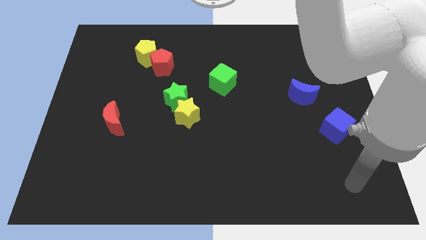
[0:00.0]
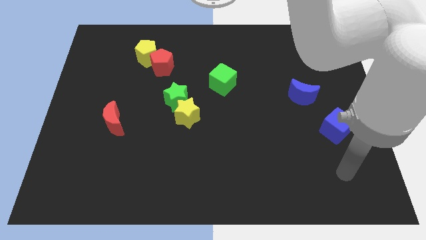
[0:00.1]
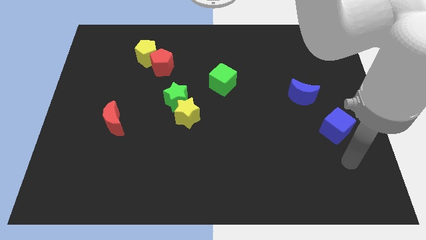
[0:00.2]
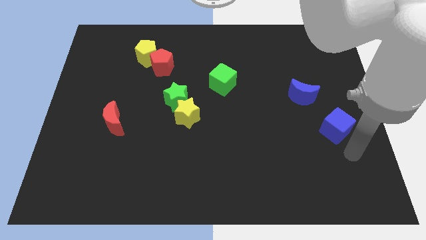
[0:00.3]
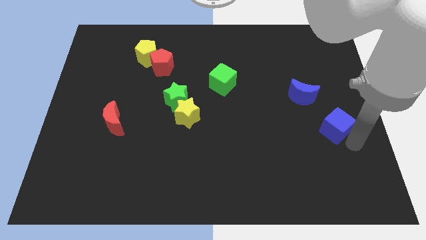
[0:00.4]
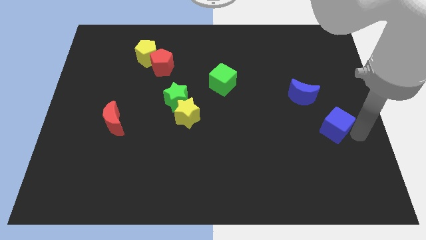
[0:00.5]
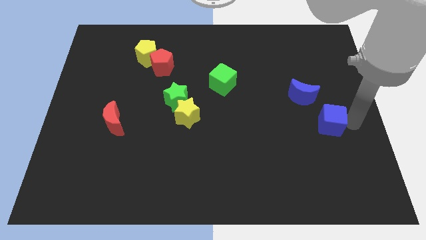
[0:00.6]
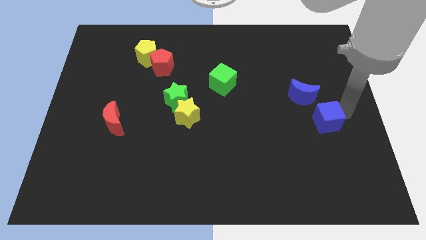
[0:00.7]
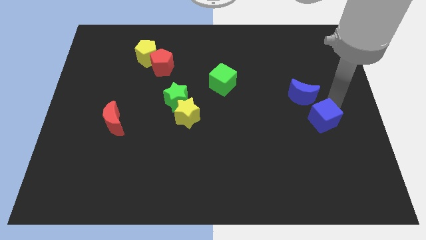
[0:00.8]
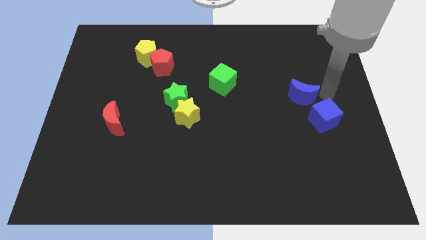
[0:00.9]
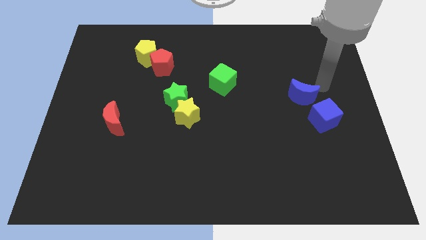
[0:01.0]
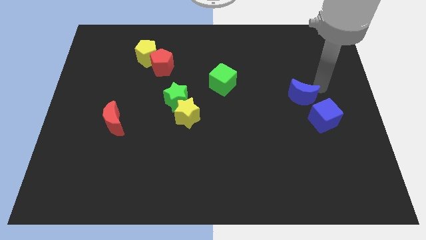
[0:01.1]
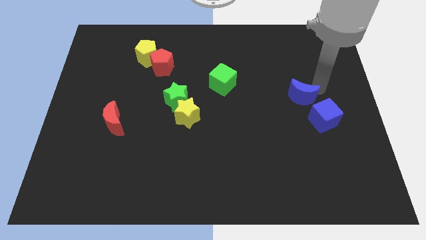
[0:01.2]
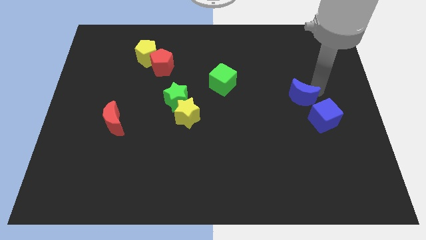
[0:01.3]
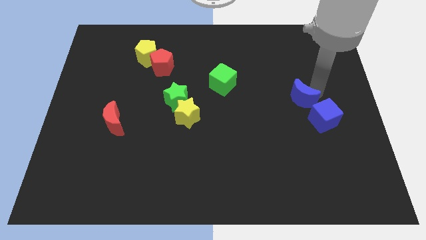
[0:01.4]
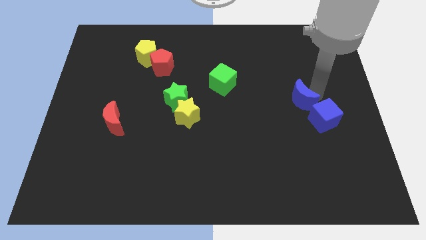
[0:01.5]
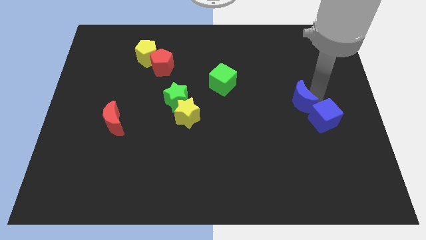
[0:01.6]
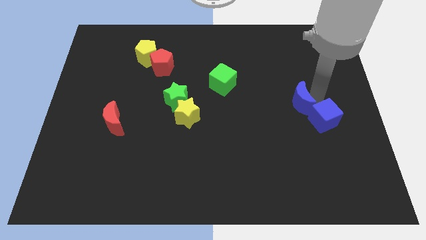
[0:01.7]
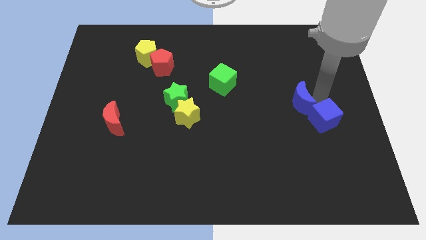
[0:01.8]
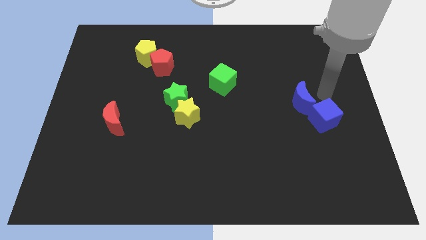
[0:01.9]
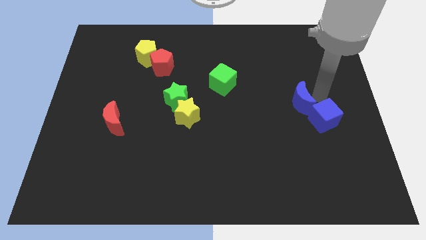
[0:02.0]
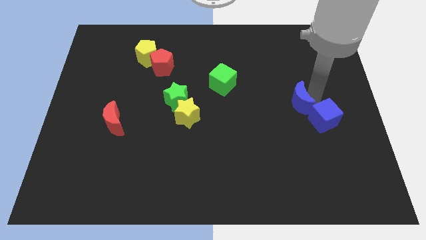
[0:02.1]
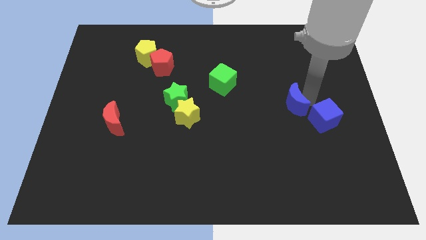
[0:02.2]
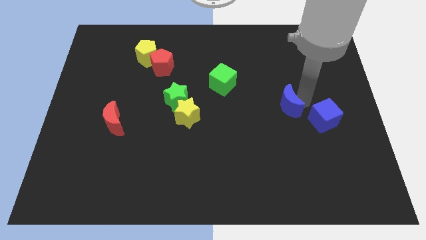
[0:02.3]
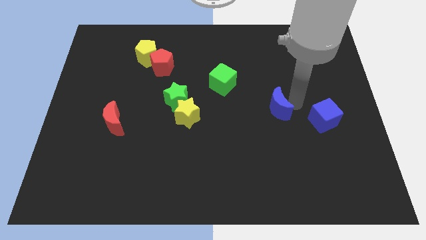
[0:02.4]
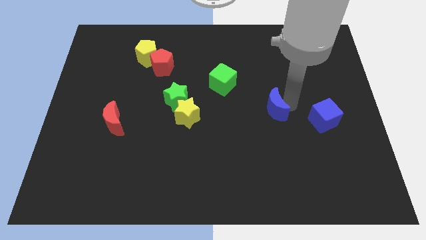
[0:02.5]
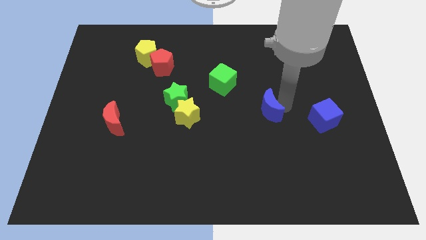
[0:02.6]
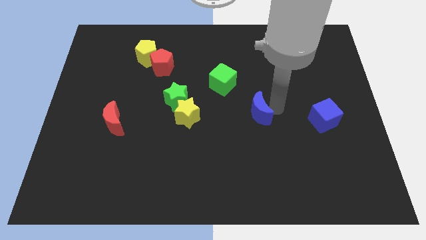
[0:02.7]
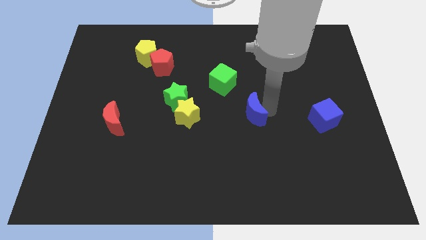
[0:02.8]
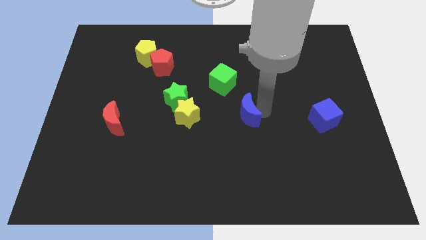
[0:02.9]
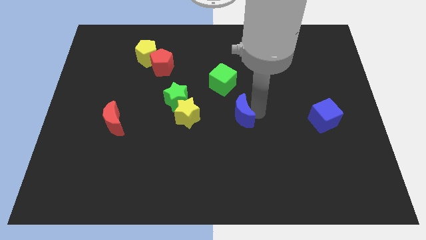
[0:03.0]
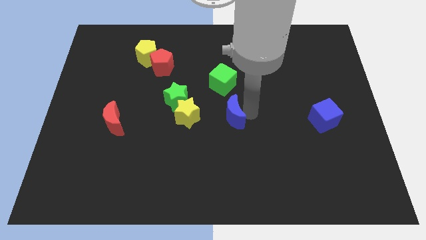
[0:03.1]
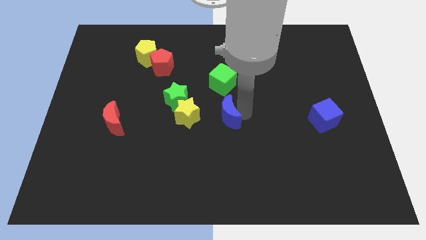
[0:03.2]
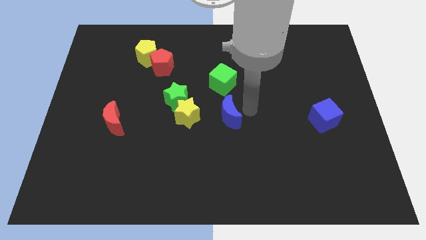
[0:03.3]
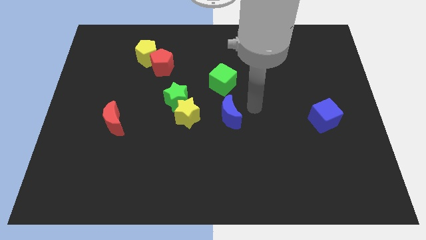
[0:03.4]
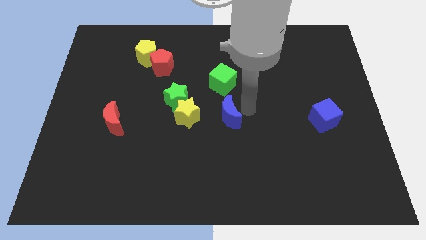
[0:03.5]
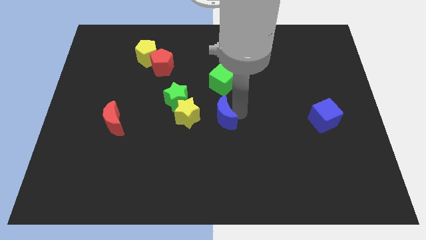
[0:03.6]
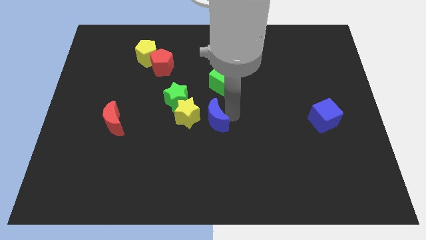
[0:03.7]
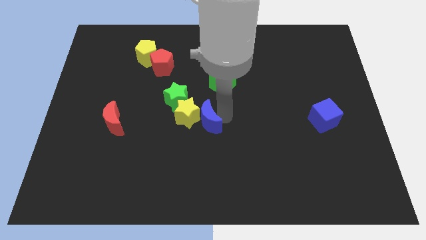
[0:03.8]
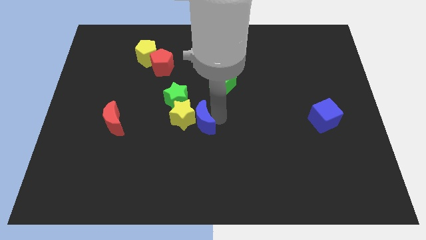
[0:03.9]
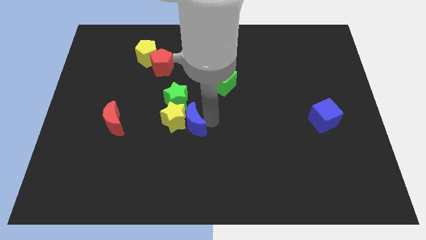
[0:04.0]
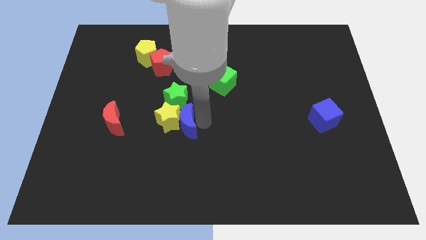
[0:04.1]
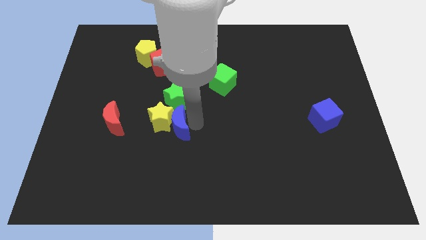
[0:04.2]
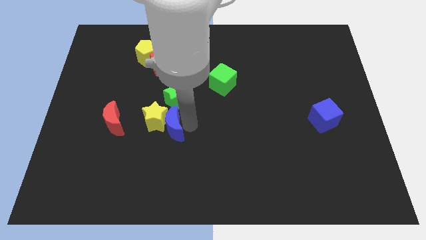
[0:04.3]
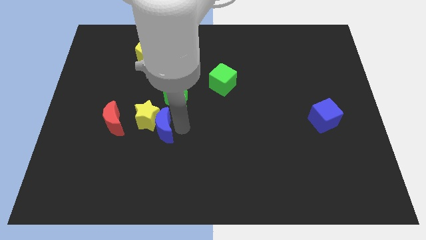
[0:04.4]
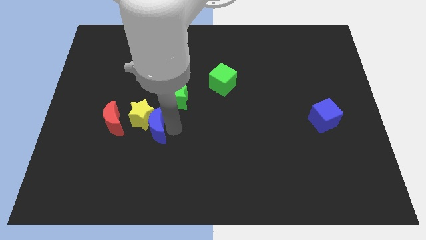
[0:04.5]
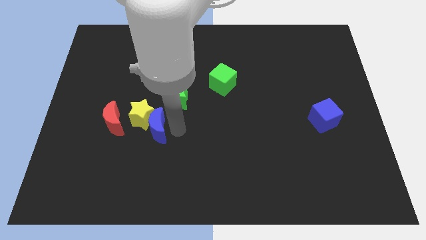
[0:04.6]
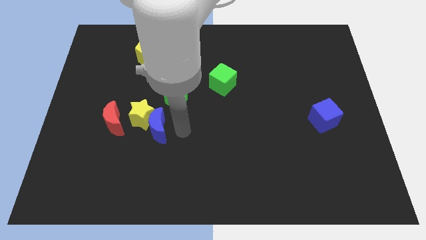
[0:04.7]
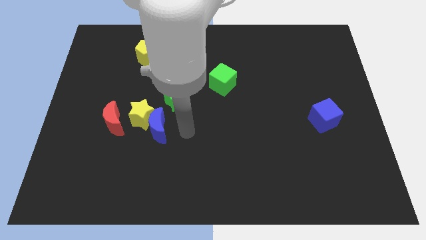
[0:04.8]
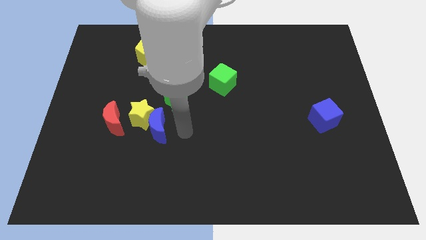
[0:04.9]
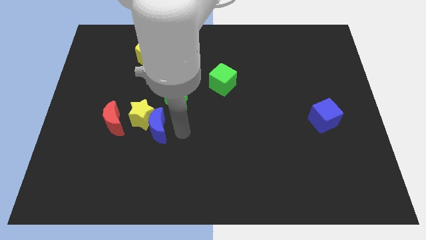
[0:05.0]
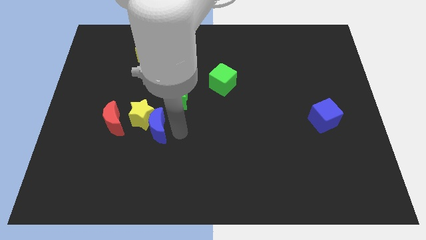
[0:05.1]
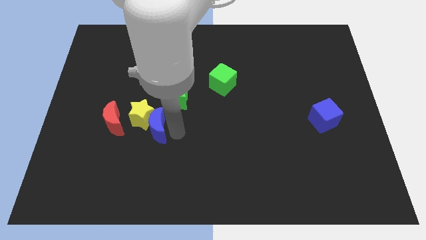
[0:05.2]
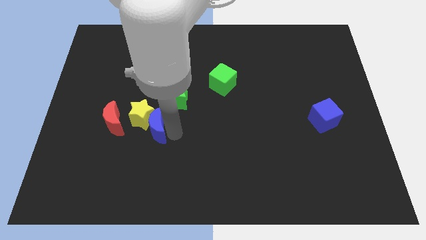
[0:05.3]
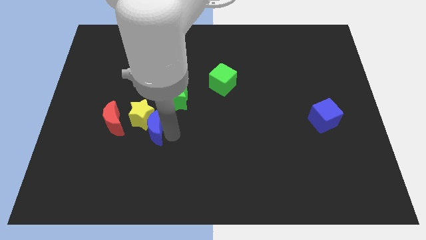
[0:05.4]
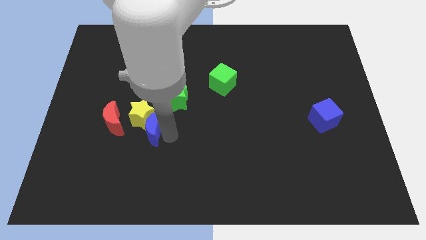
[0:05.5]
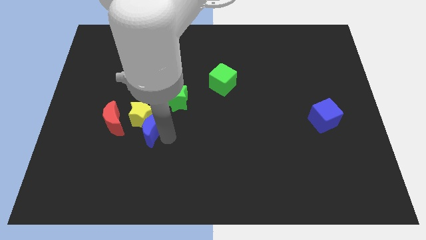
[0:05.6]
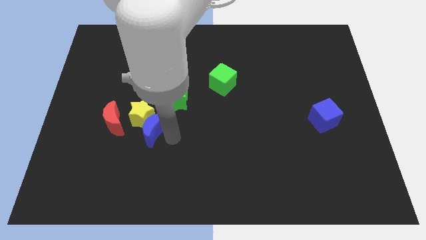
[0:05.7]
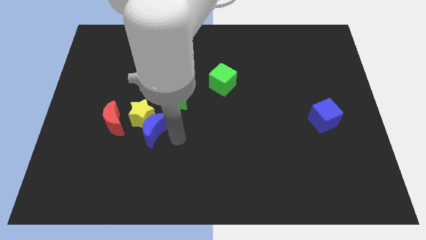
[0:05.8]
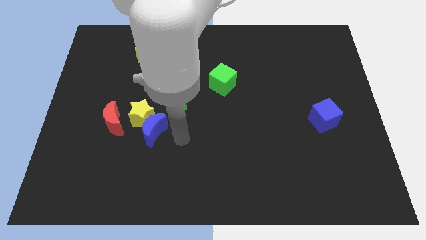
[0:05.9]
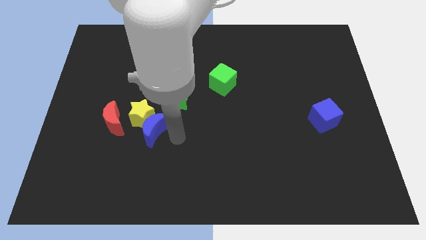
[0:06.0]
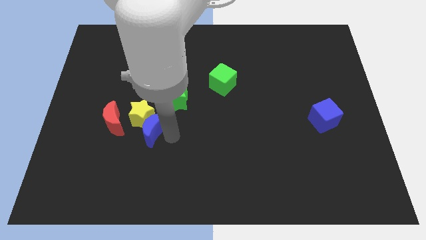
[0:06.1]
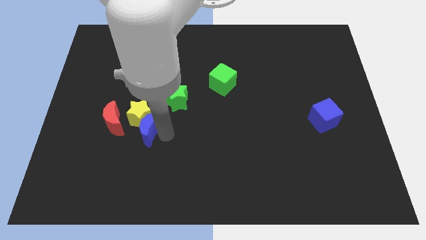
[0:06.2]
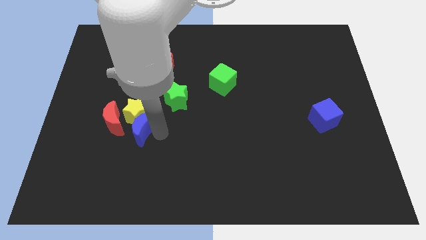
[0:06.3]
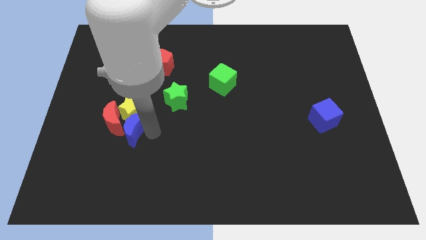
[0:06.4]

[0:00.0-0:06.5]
move the blue moon close to the red moon
